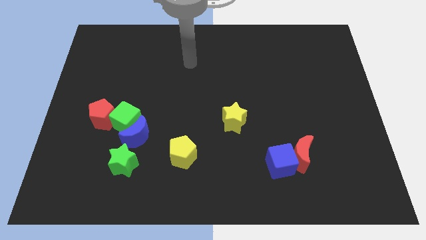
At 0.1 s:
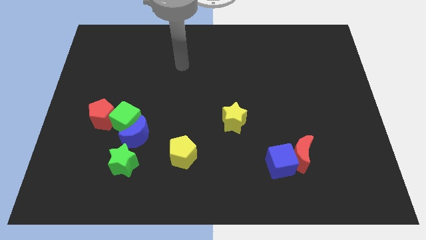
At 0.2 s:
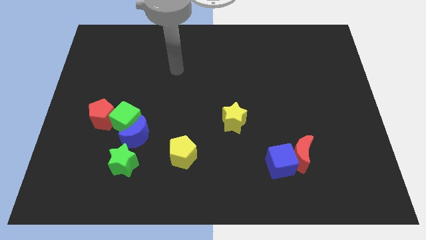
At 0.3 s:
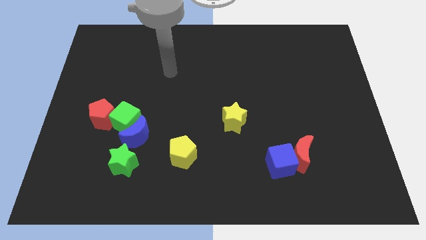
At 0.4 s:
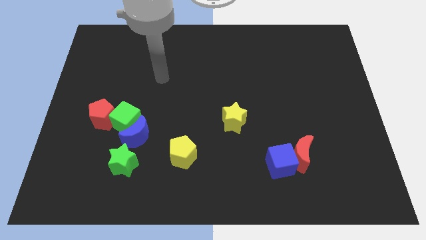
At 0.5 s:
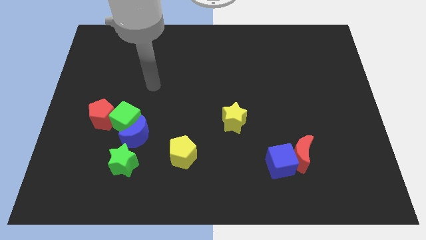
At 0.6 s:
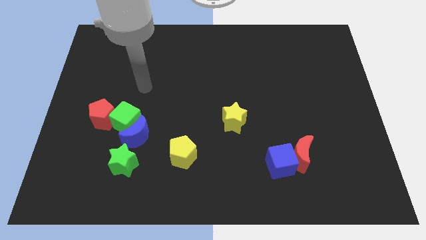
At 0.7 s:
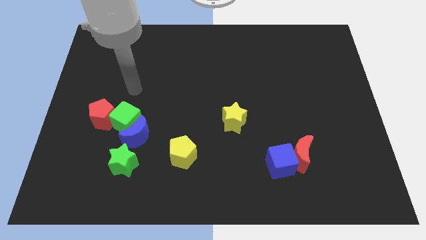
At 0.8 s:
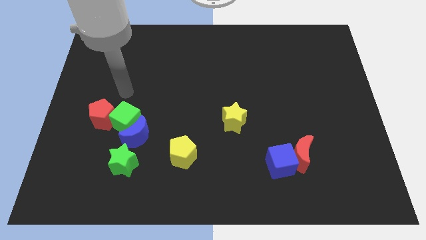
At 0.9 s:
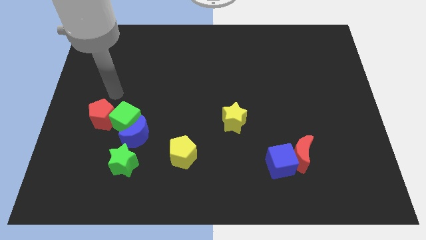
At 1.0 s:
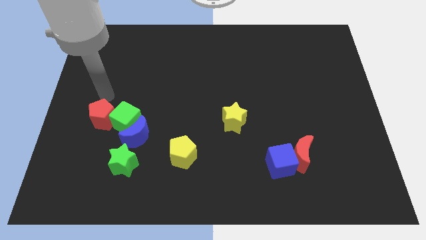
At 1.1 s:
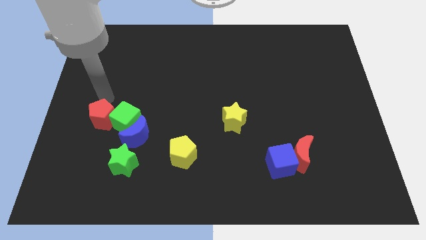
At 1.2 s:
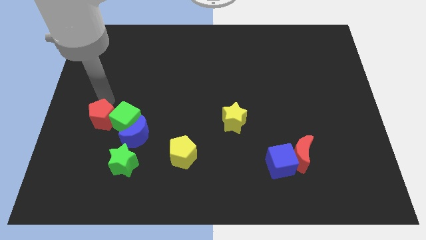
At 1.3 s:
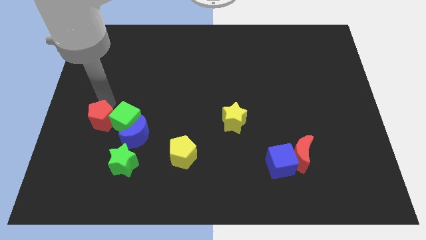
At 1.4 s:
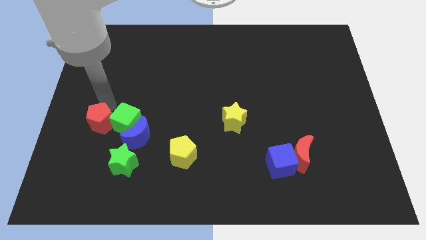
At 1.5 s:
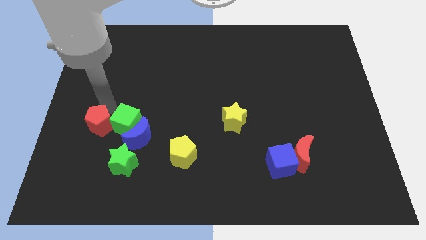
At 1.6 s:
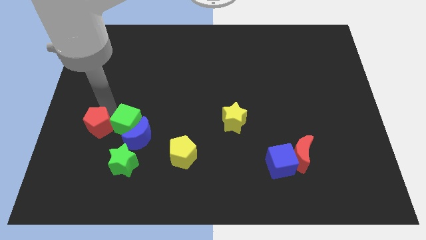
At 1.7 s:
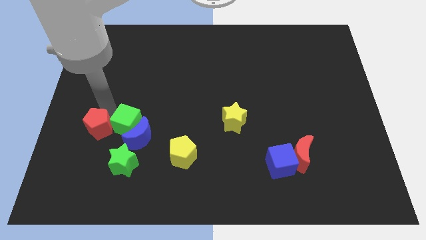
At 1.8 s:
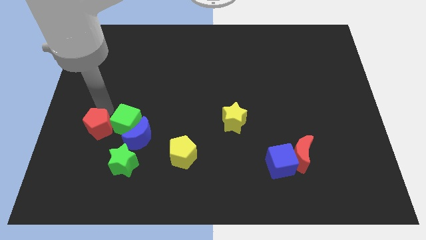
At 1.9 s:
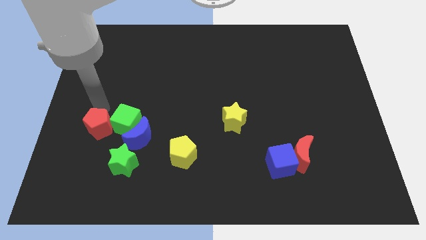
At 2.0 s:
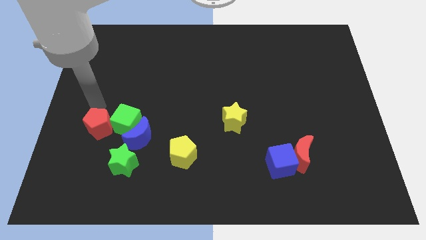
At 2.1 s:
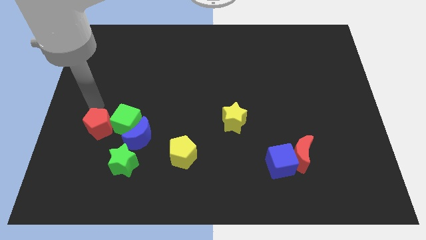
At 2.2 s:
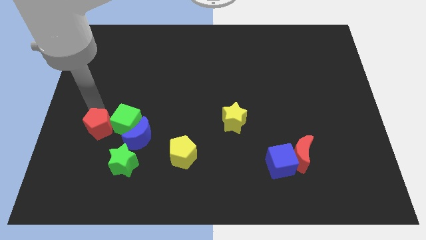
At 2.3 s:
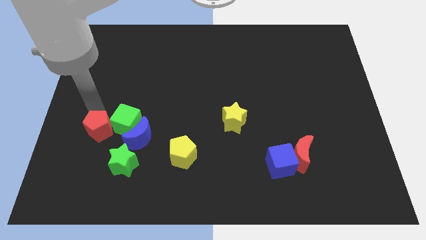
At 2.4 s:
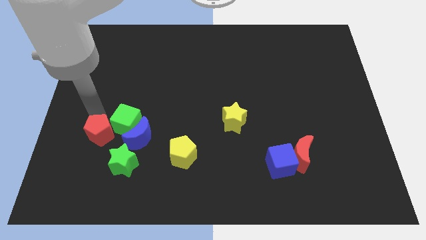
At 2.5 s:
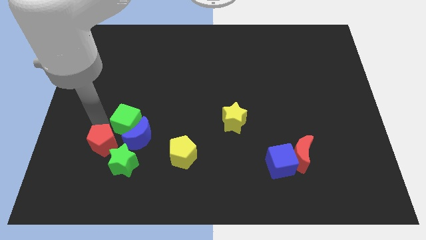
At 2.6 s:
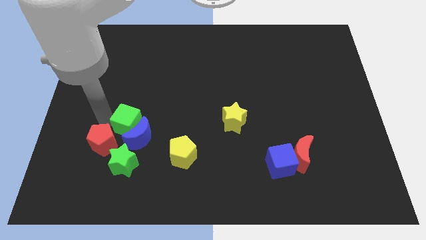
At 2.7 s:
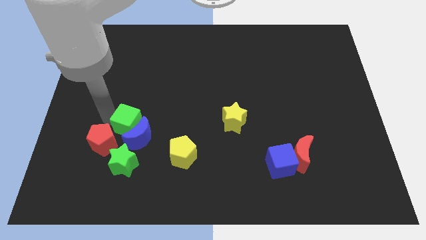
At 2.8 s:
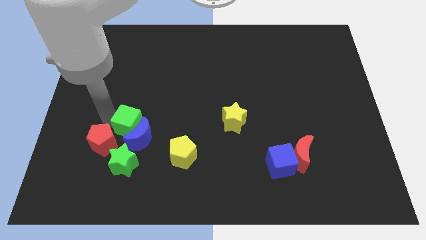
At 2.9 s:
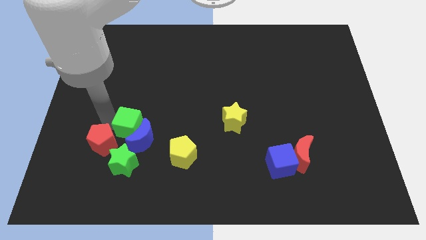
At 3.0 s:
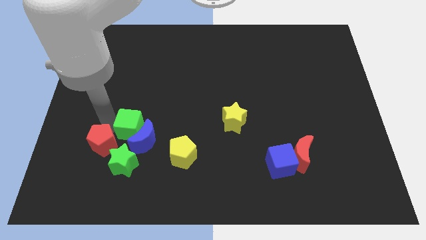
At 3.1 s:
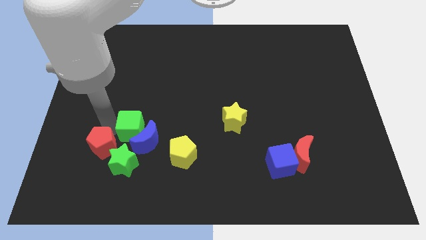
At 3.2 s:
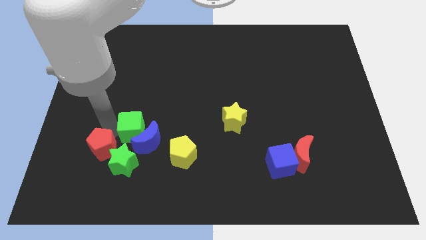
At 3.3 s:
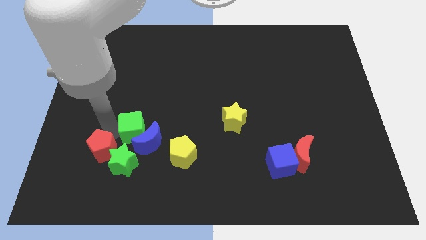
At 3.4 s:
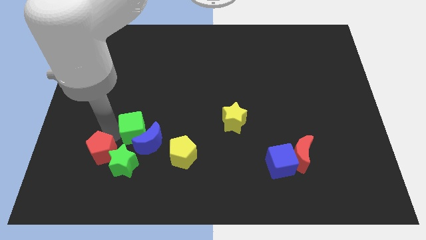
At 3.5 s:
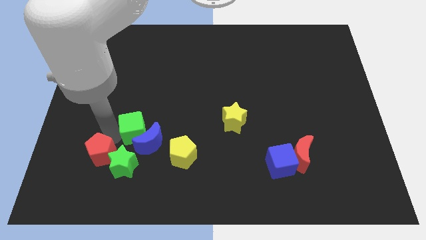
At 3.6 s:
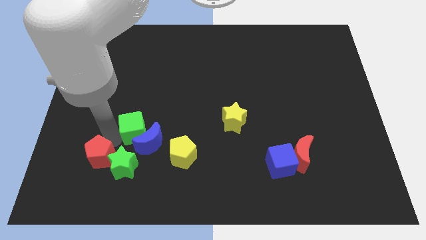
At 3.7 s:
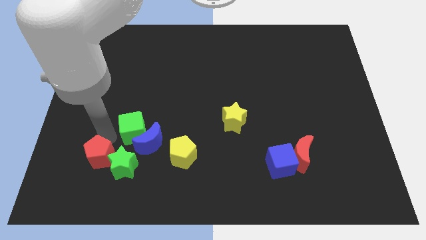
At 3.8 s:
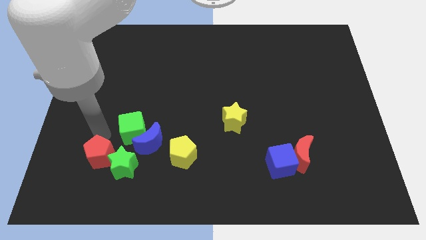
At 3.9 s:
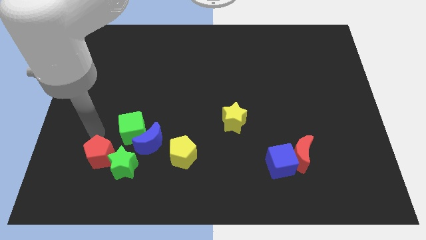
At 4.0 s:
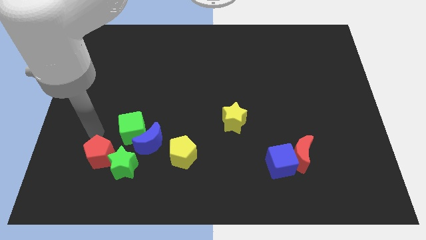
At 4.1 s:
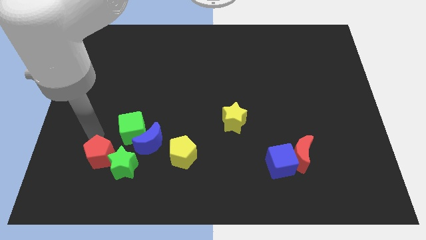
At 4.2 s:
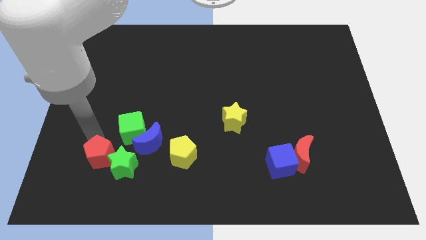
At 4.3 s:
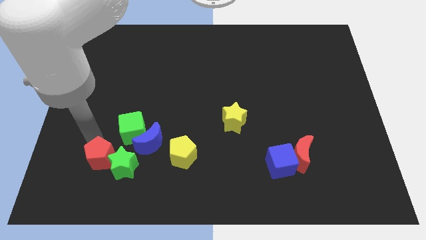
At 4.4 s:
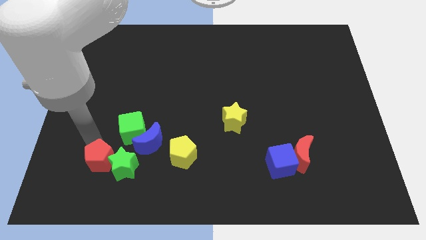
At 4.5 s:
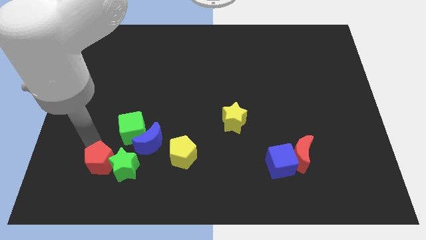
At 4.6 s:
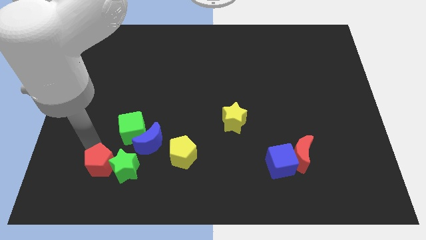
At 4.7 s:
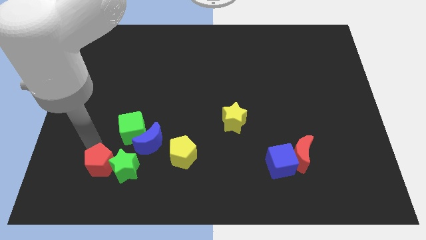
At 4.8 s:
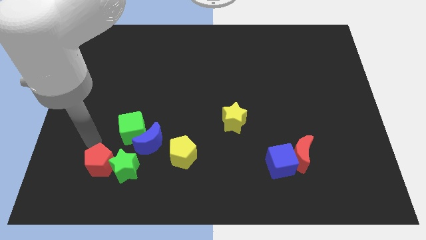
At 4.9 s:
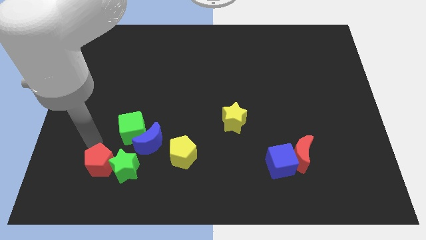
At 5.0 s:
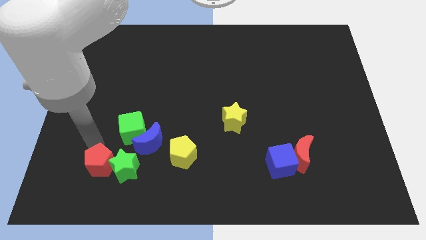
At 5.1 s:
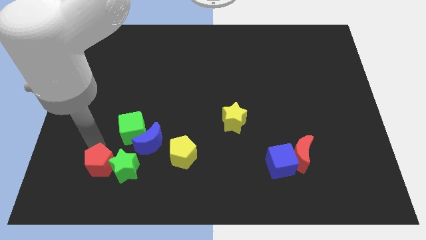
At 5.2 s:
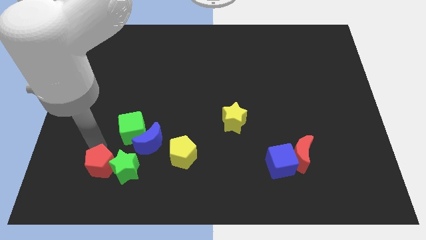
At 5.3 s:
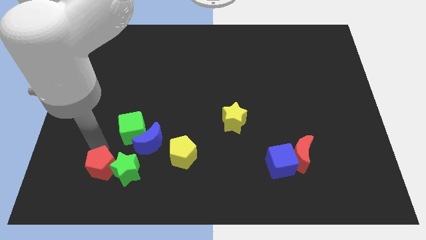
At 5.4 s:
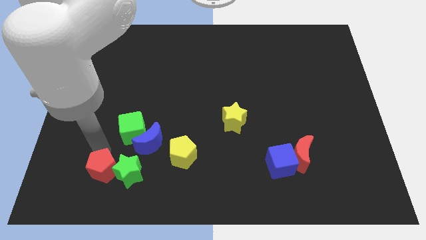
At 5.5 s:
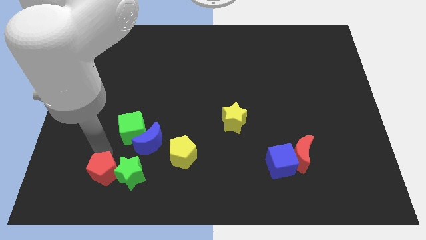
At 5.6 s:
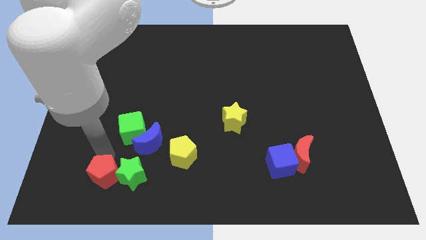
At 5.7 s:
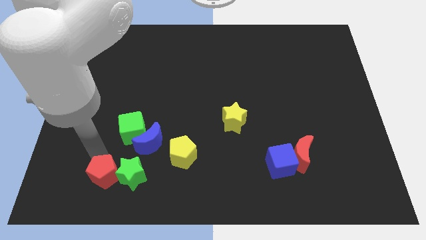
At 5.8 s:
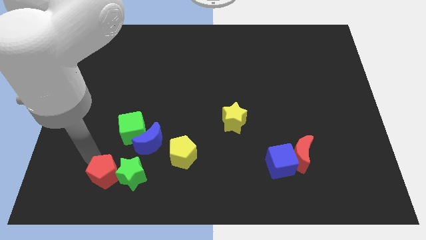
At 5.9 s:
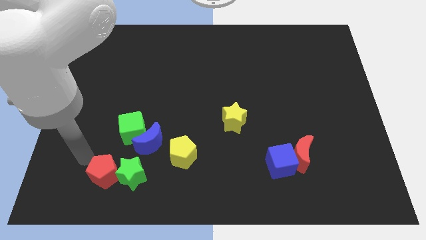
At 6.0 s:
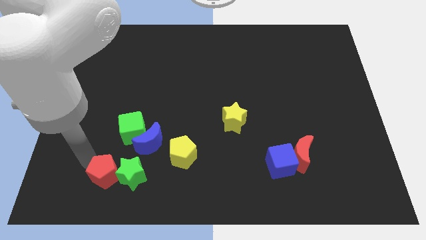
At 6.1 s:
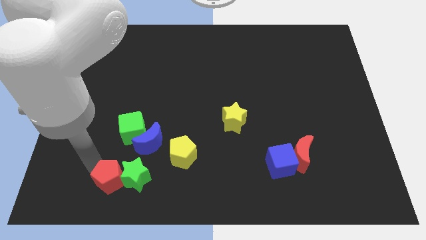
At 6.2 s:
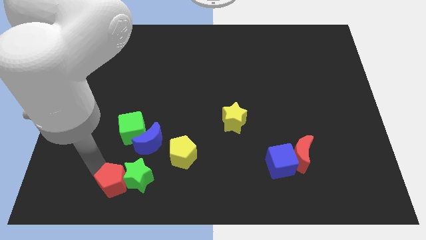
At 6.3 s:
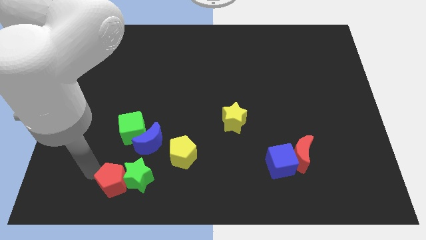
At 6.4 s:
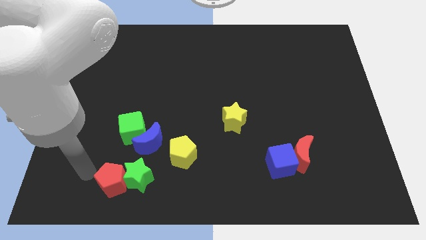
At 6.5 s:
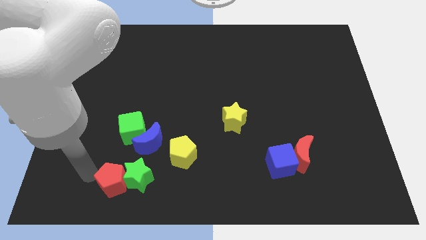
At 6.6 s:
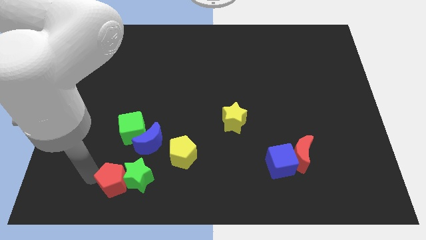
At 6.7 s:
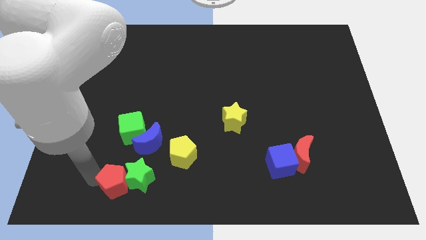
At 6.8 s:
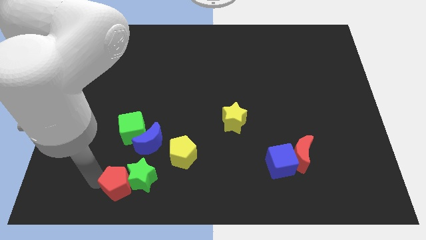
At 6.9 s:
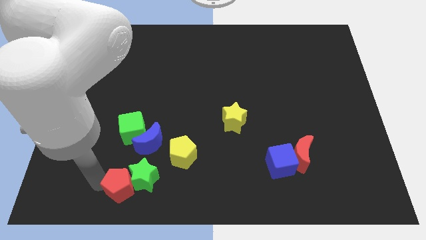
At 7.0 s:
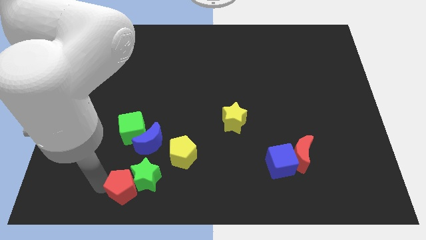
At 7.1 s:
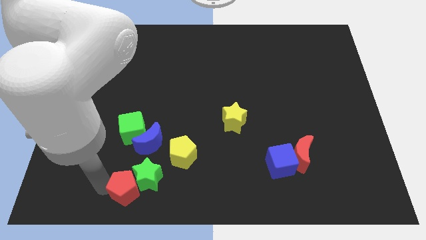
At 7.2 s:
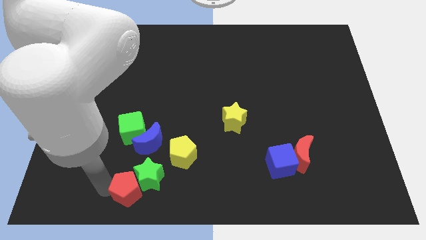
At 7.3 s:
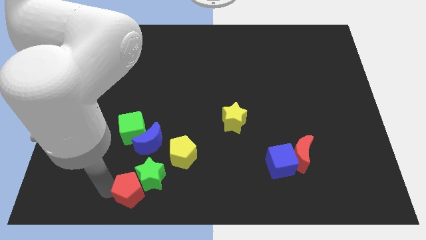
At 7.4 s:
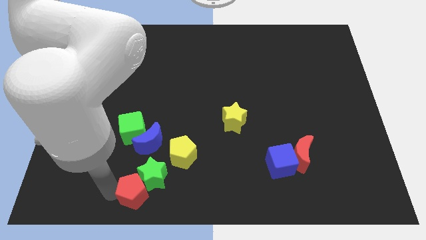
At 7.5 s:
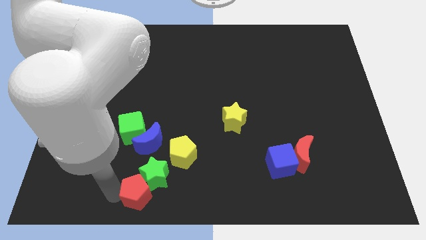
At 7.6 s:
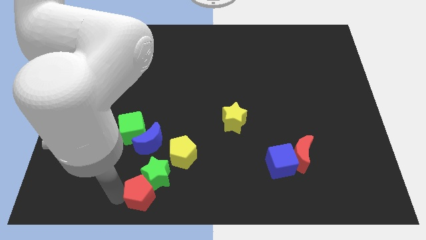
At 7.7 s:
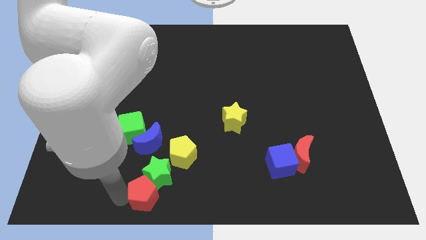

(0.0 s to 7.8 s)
put the red pentagon to the bottom
